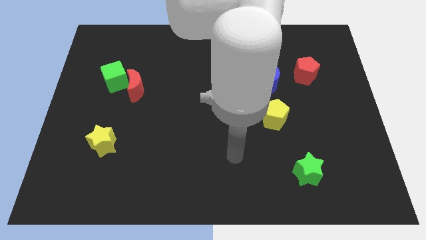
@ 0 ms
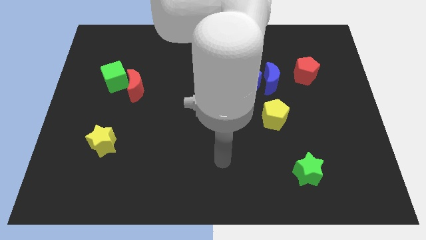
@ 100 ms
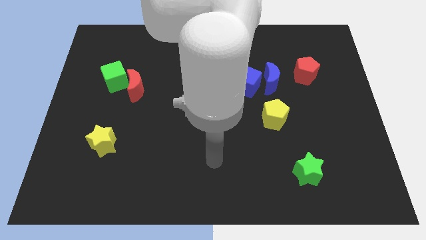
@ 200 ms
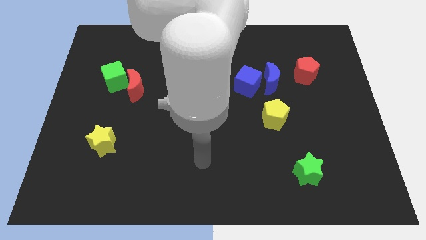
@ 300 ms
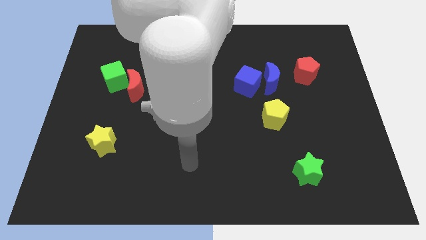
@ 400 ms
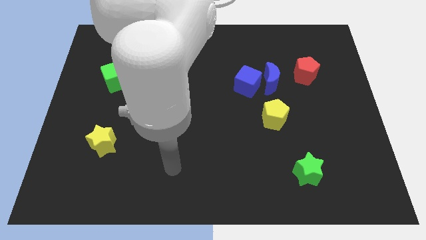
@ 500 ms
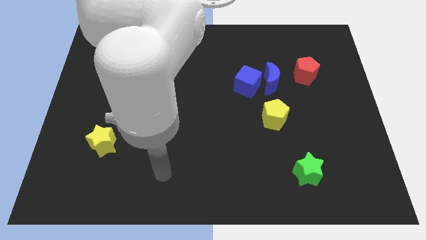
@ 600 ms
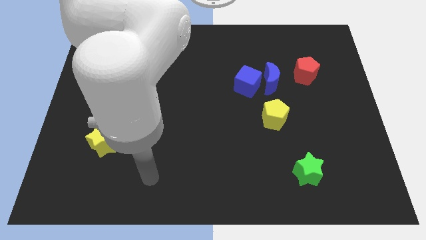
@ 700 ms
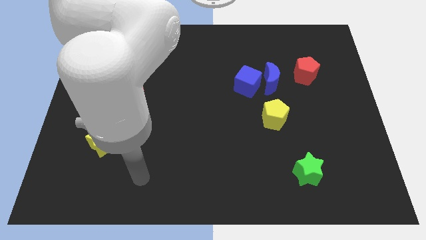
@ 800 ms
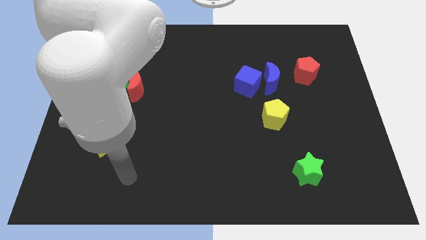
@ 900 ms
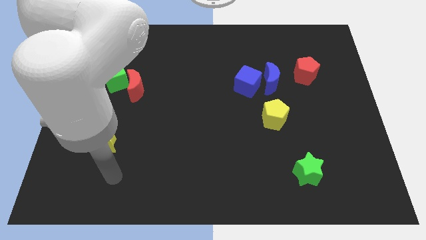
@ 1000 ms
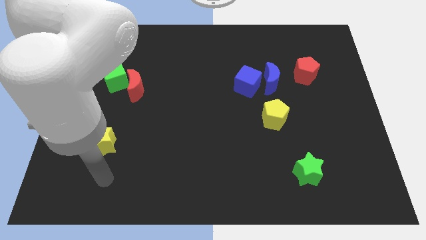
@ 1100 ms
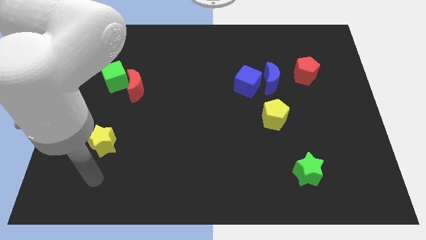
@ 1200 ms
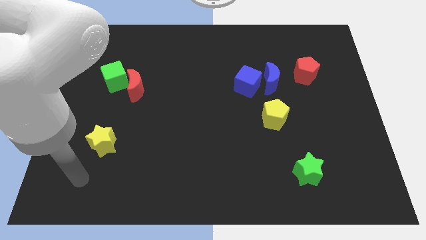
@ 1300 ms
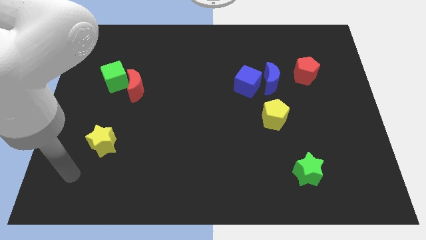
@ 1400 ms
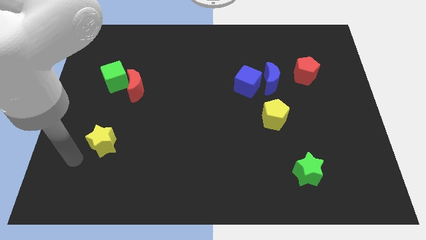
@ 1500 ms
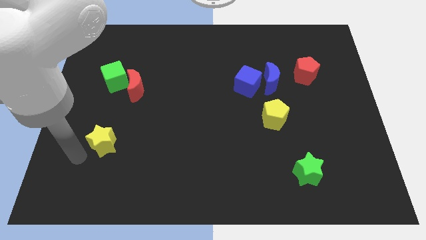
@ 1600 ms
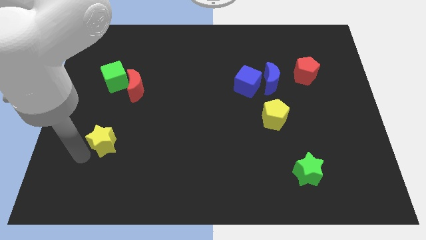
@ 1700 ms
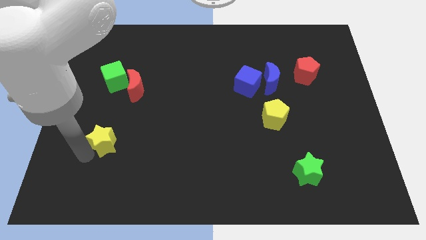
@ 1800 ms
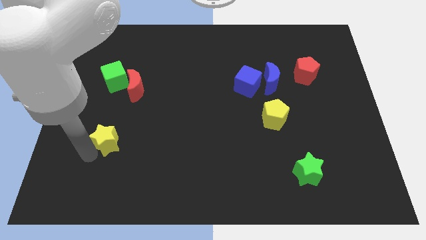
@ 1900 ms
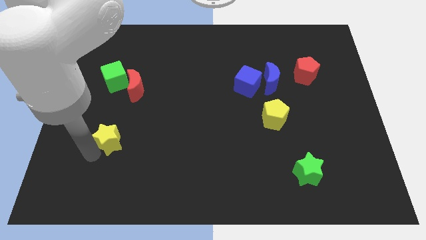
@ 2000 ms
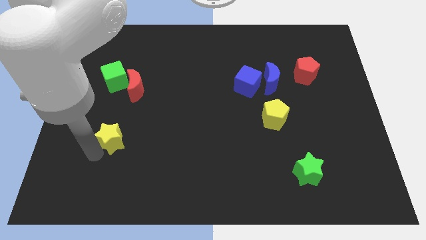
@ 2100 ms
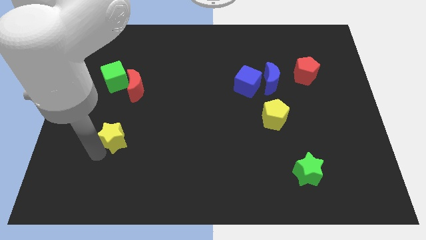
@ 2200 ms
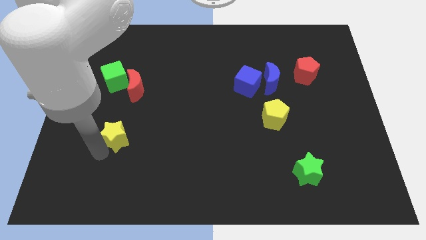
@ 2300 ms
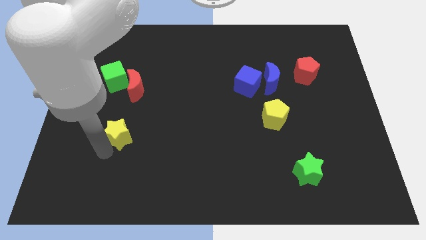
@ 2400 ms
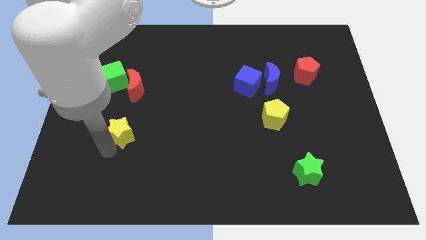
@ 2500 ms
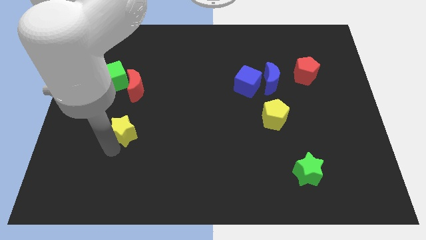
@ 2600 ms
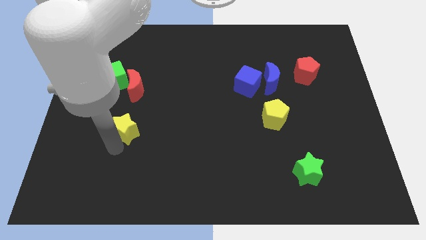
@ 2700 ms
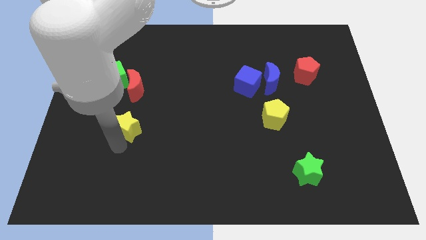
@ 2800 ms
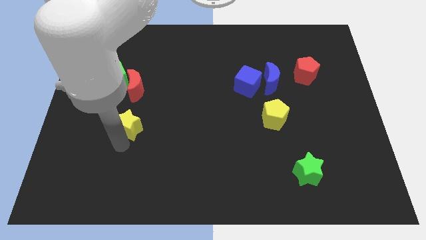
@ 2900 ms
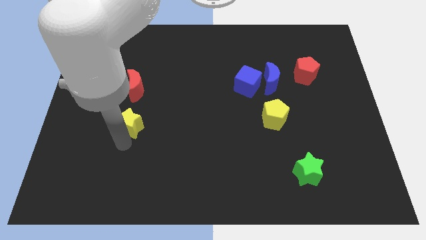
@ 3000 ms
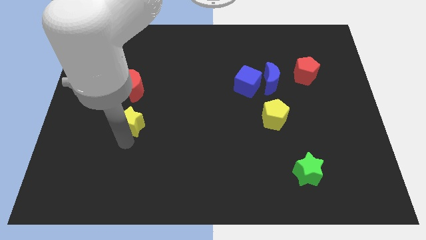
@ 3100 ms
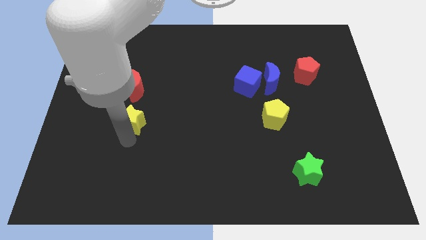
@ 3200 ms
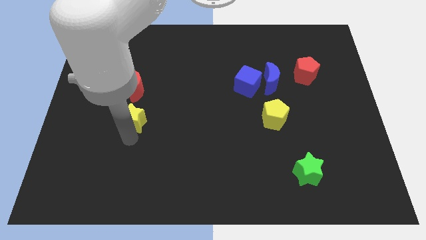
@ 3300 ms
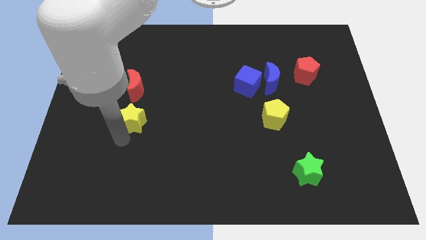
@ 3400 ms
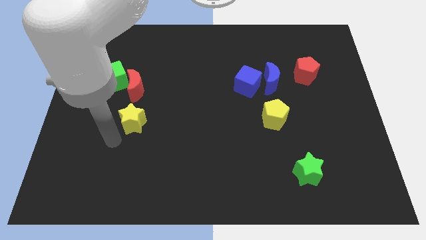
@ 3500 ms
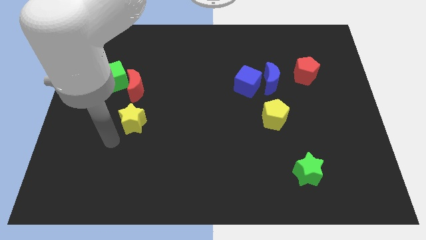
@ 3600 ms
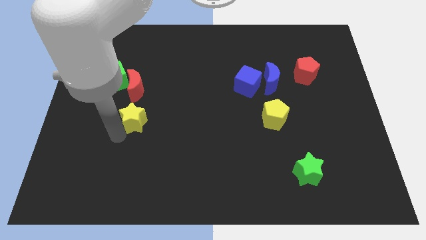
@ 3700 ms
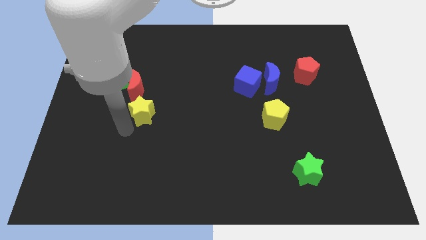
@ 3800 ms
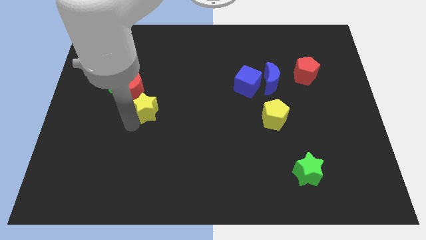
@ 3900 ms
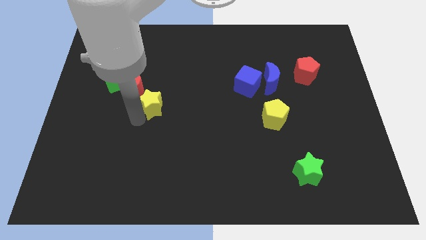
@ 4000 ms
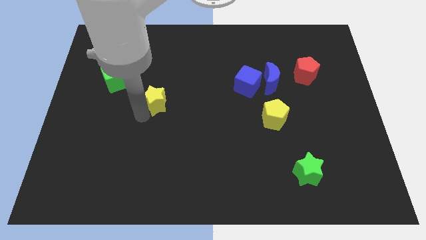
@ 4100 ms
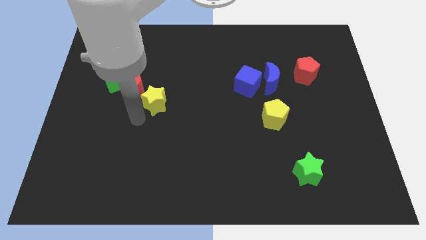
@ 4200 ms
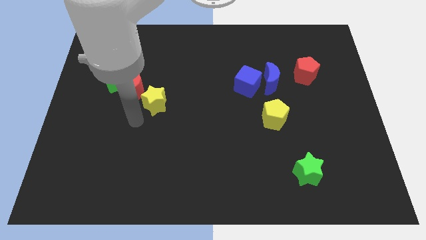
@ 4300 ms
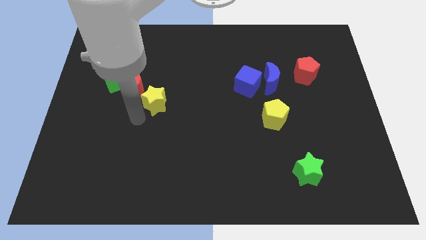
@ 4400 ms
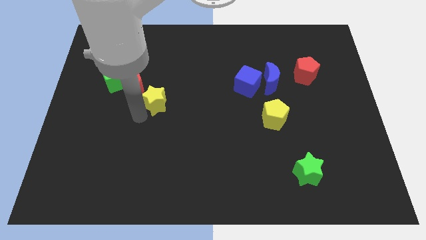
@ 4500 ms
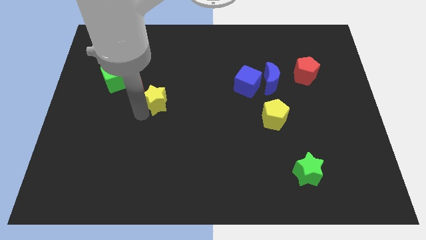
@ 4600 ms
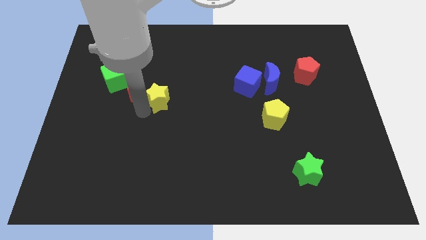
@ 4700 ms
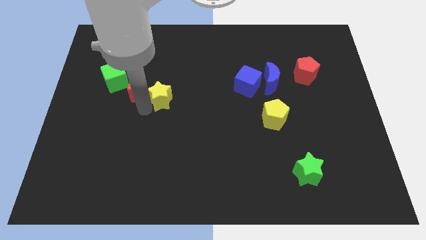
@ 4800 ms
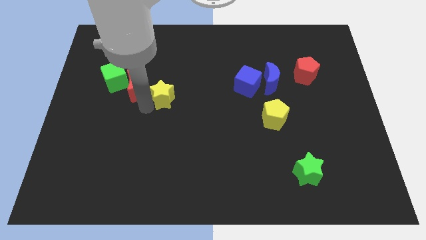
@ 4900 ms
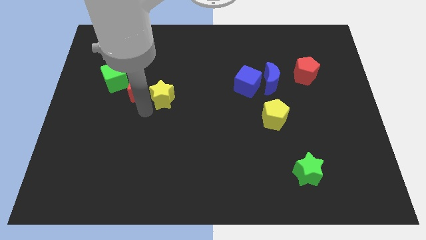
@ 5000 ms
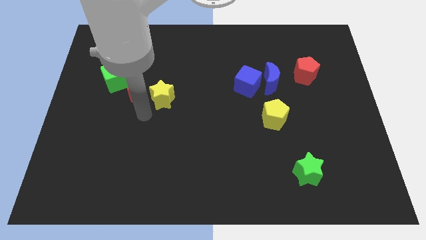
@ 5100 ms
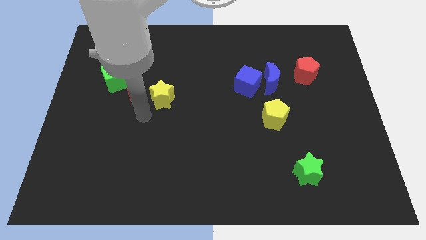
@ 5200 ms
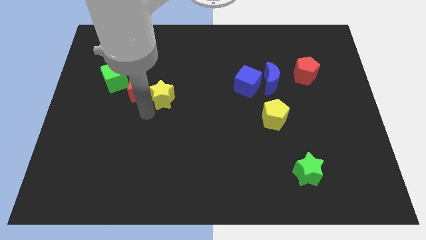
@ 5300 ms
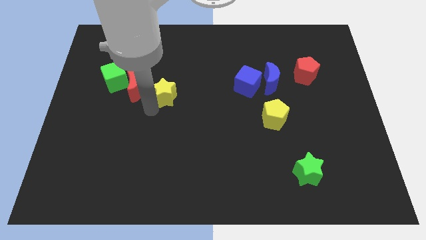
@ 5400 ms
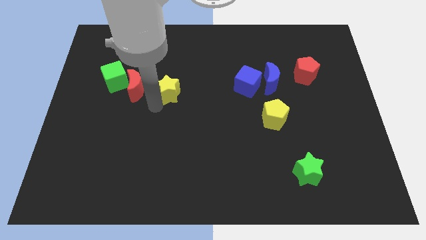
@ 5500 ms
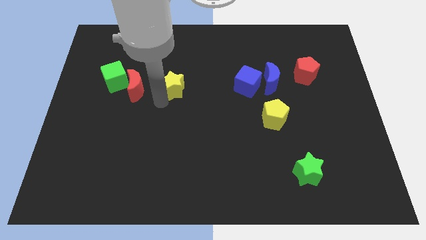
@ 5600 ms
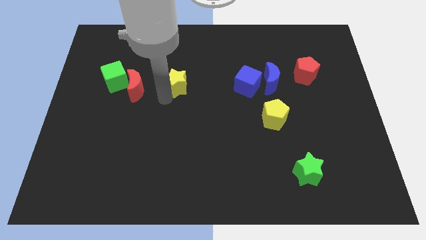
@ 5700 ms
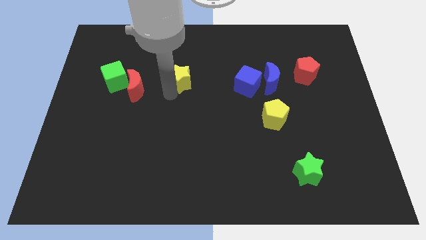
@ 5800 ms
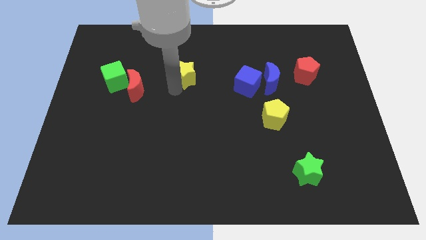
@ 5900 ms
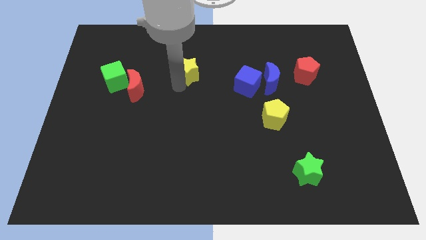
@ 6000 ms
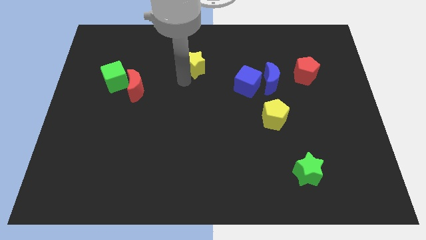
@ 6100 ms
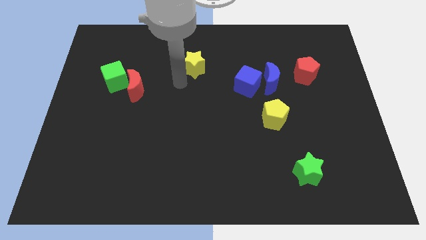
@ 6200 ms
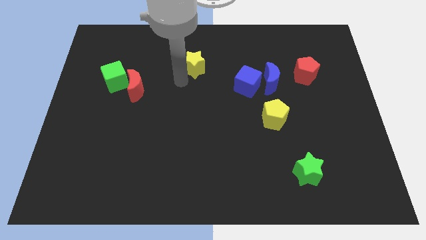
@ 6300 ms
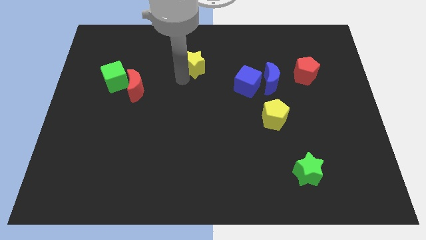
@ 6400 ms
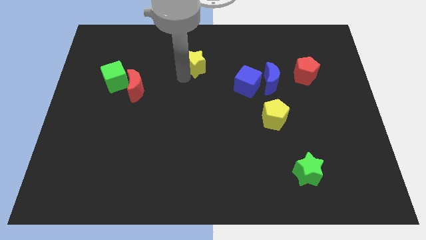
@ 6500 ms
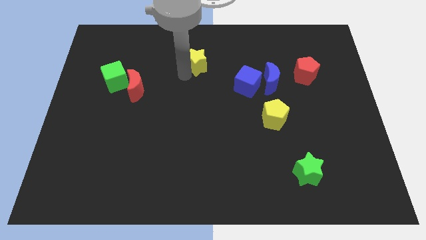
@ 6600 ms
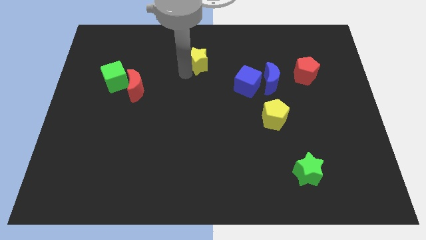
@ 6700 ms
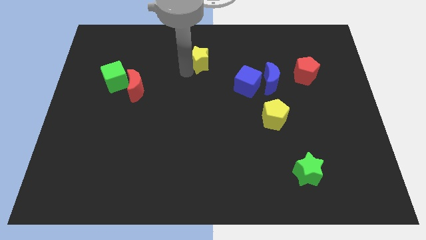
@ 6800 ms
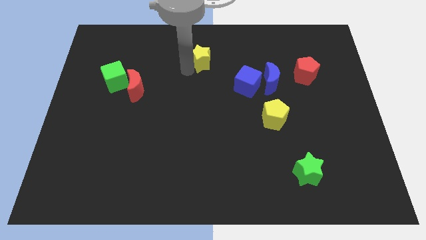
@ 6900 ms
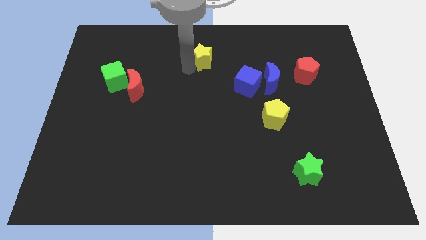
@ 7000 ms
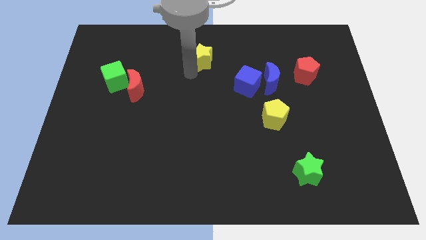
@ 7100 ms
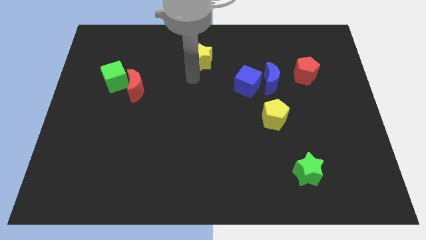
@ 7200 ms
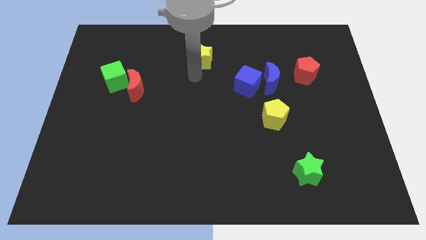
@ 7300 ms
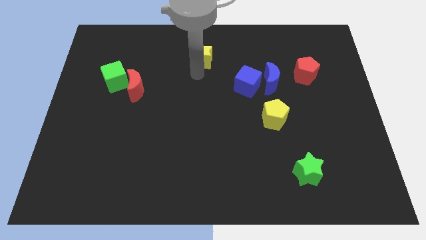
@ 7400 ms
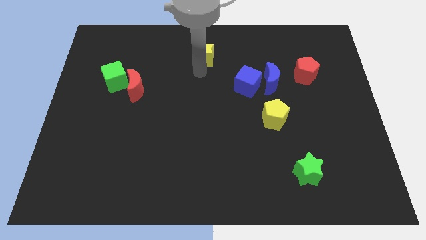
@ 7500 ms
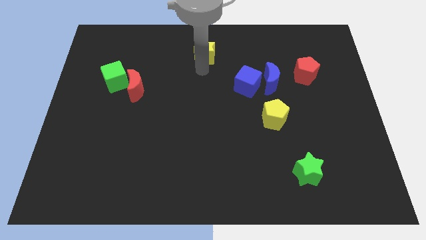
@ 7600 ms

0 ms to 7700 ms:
push the yellow star to the towards your base
